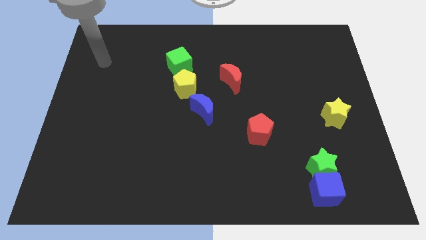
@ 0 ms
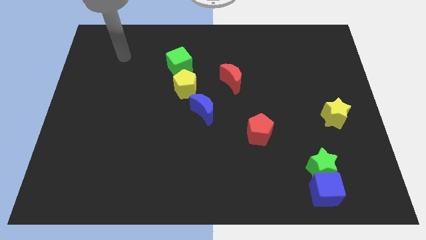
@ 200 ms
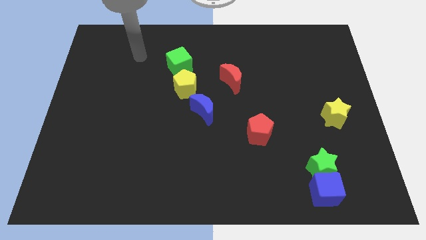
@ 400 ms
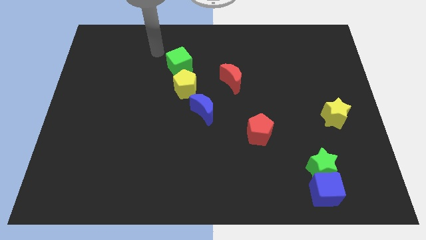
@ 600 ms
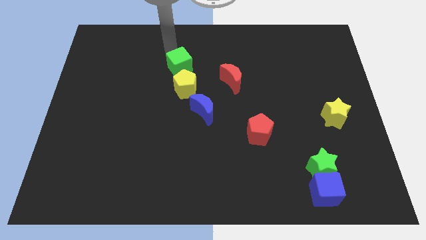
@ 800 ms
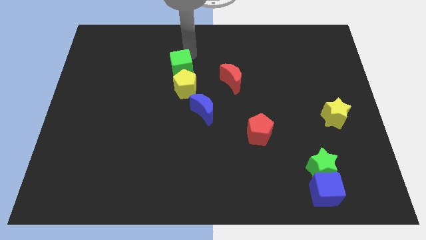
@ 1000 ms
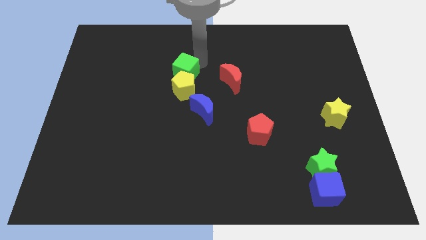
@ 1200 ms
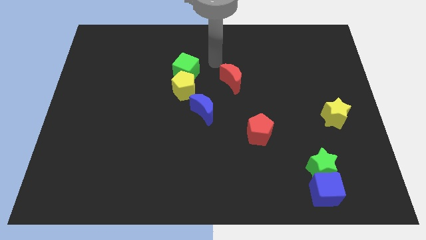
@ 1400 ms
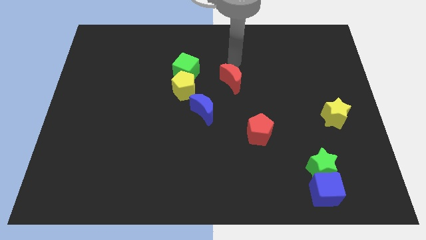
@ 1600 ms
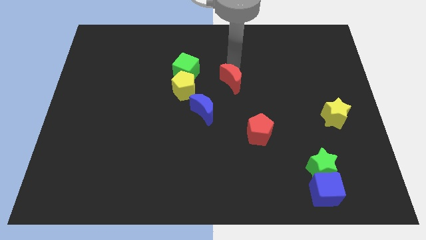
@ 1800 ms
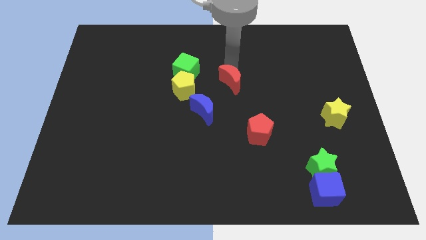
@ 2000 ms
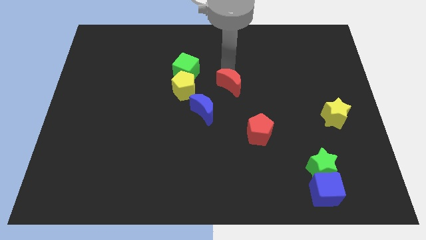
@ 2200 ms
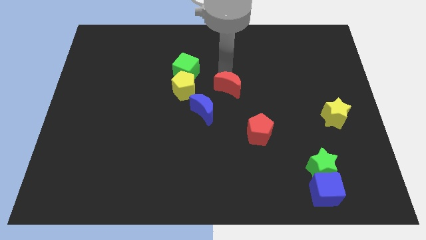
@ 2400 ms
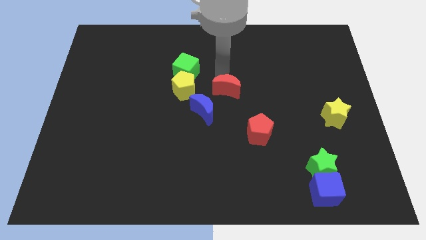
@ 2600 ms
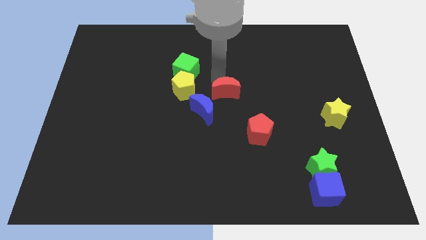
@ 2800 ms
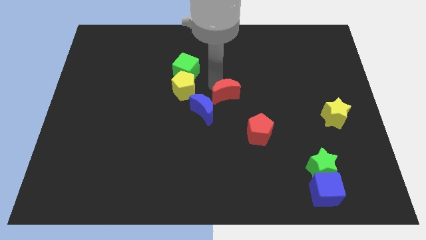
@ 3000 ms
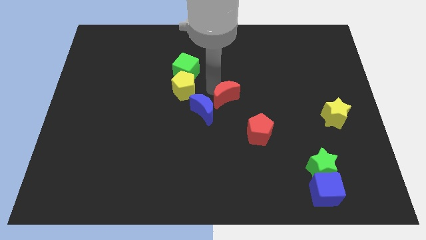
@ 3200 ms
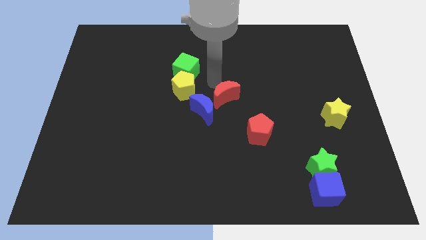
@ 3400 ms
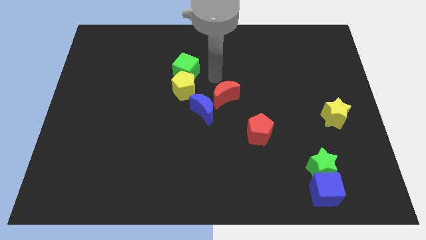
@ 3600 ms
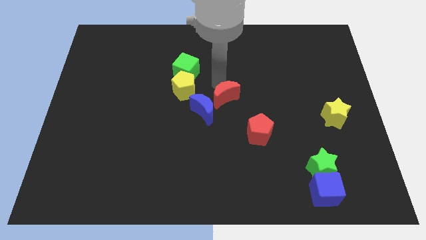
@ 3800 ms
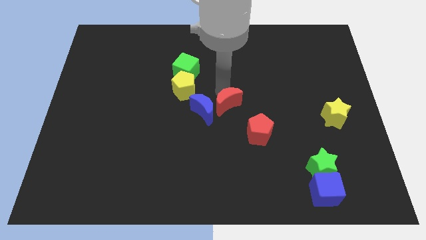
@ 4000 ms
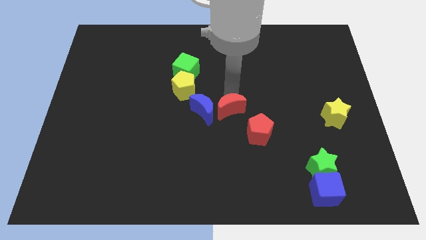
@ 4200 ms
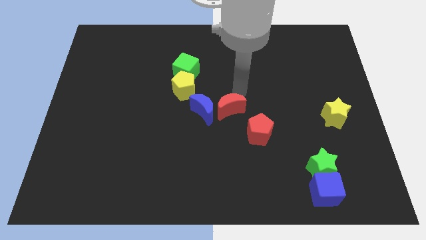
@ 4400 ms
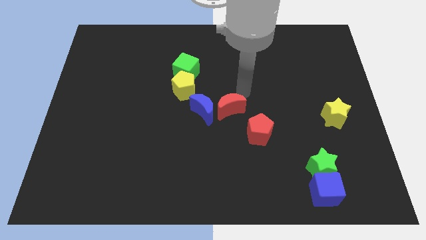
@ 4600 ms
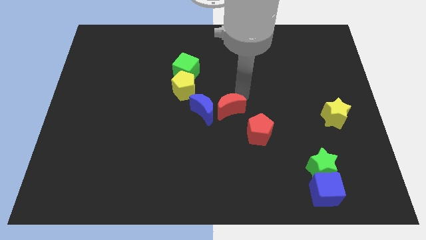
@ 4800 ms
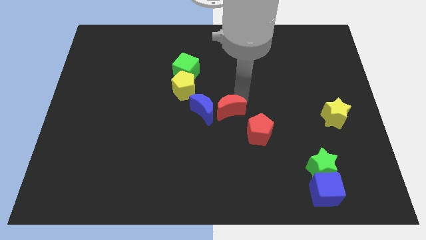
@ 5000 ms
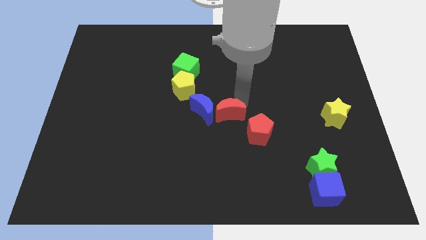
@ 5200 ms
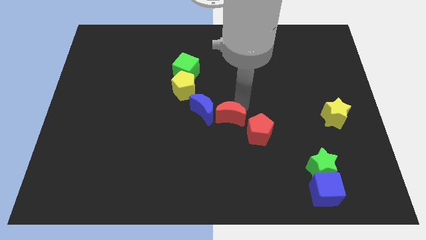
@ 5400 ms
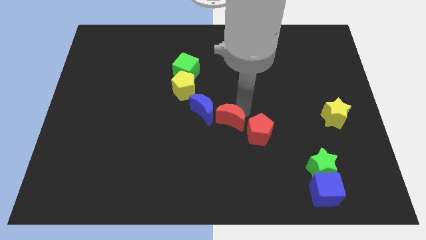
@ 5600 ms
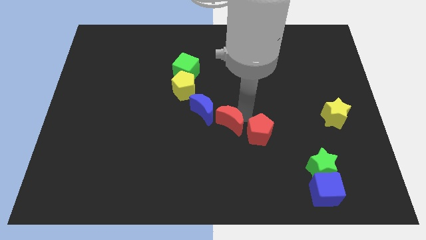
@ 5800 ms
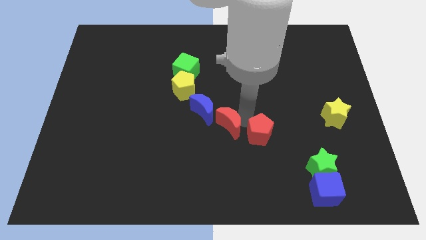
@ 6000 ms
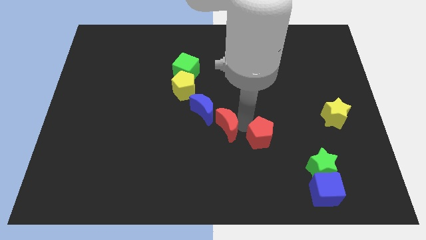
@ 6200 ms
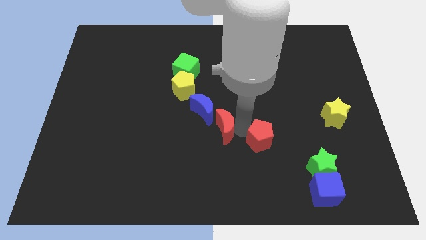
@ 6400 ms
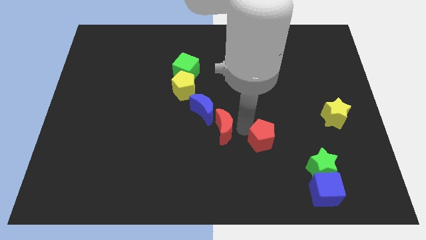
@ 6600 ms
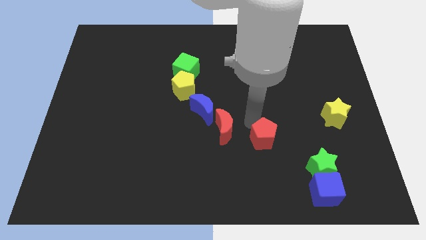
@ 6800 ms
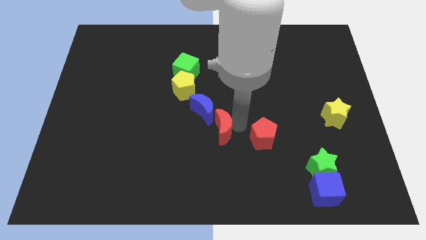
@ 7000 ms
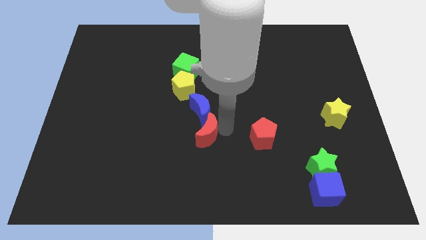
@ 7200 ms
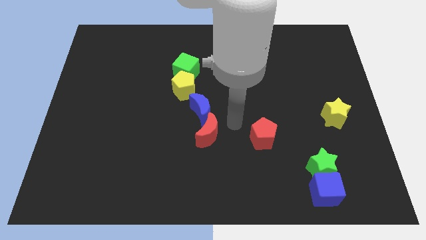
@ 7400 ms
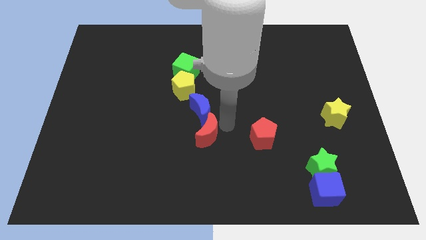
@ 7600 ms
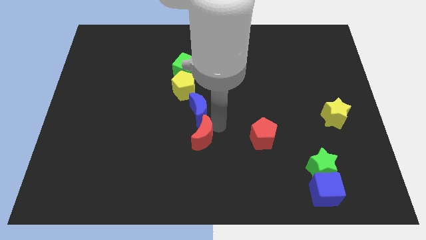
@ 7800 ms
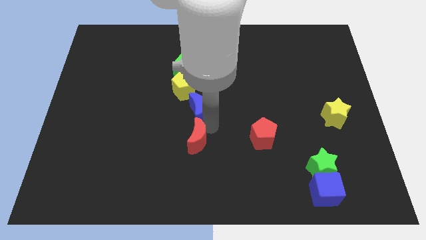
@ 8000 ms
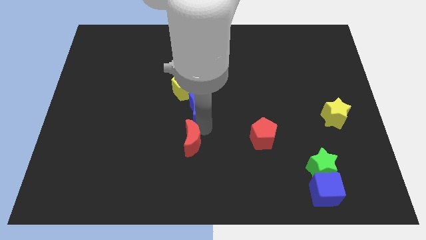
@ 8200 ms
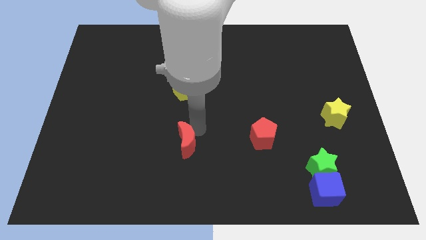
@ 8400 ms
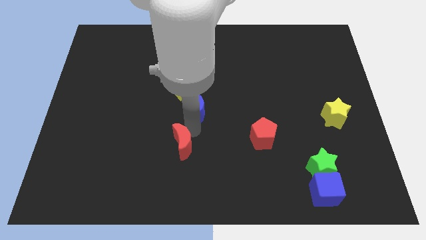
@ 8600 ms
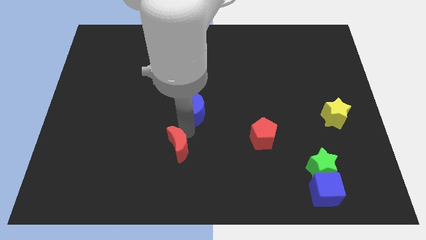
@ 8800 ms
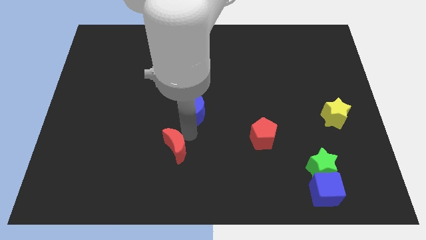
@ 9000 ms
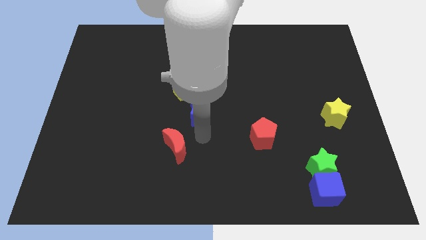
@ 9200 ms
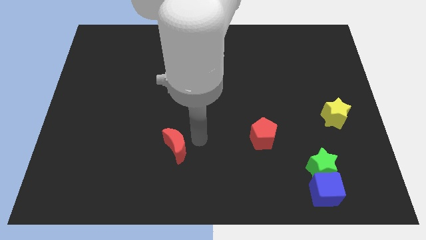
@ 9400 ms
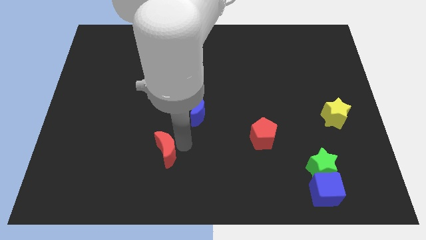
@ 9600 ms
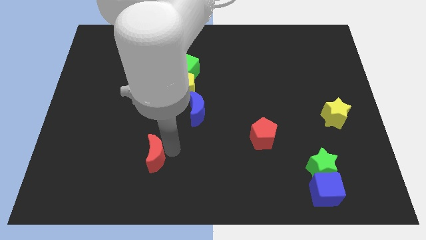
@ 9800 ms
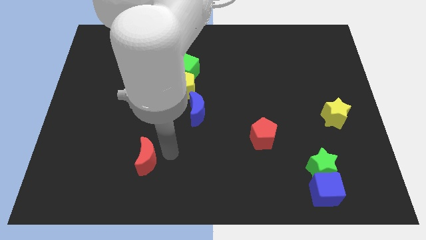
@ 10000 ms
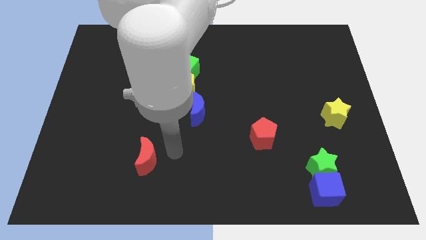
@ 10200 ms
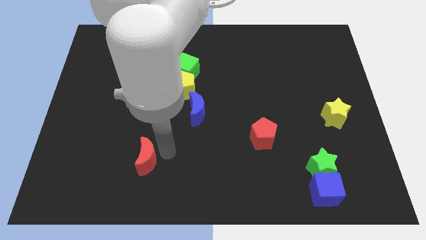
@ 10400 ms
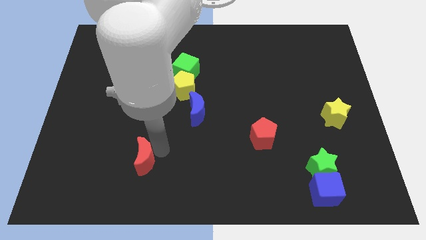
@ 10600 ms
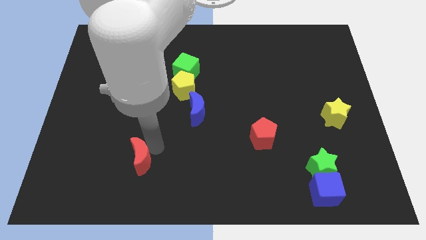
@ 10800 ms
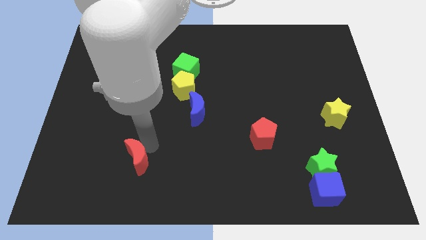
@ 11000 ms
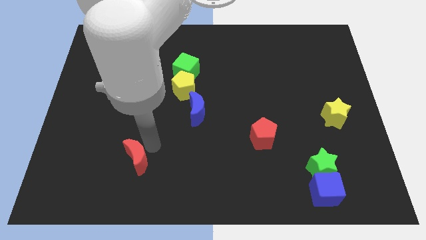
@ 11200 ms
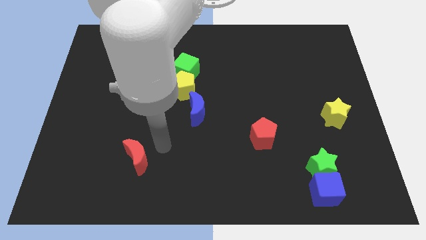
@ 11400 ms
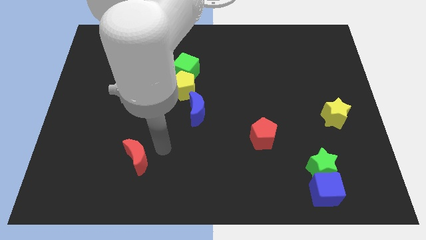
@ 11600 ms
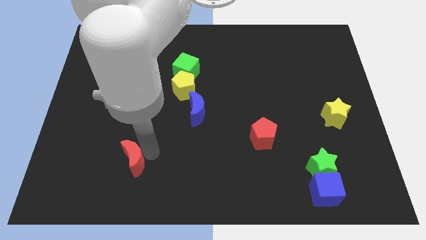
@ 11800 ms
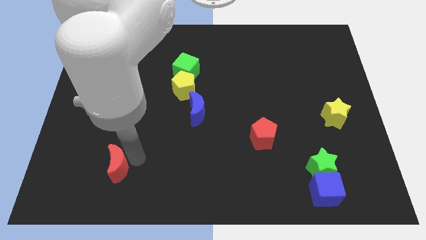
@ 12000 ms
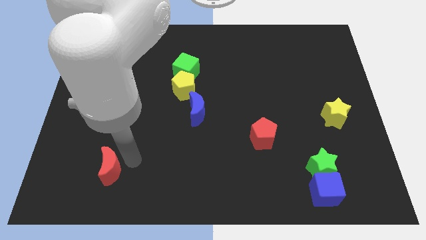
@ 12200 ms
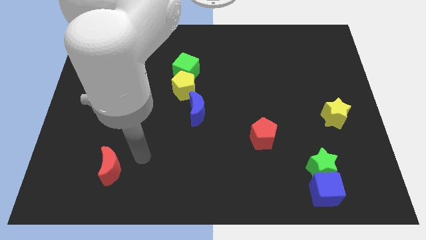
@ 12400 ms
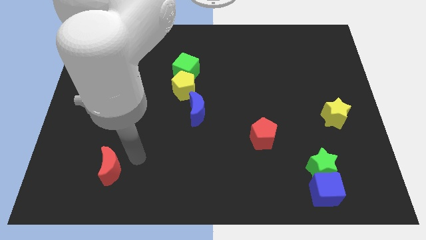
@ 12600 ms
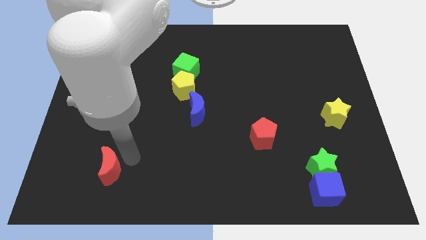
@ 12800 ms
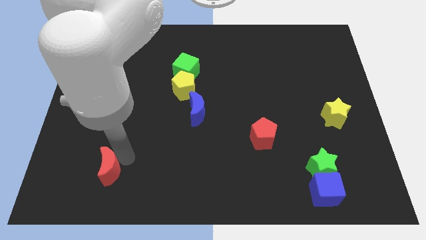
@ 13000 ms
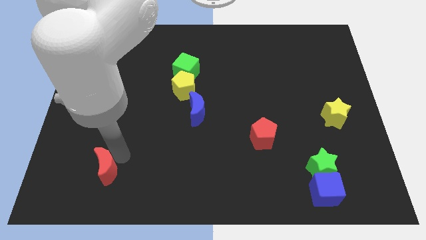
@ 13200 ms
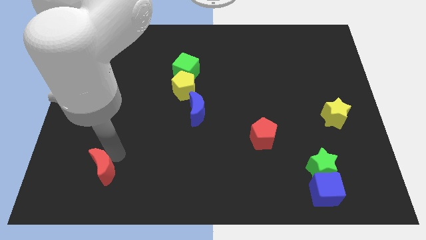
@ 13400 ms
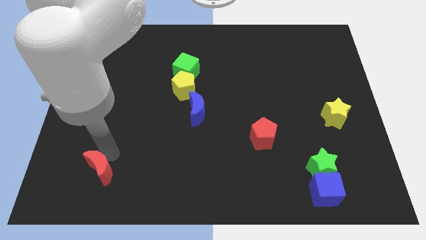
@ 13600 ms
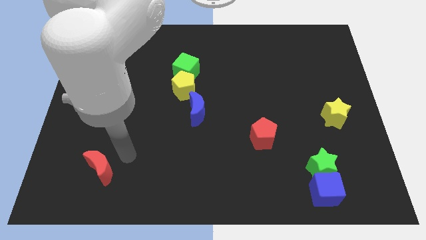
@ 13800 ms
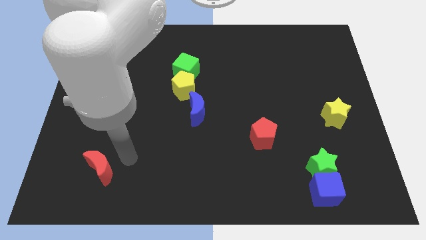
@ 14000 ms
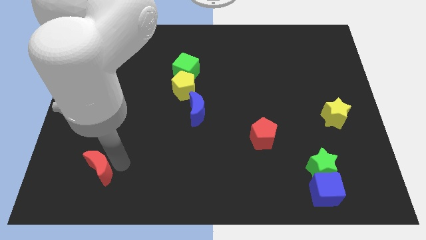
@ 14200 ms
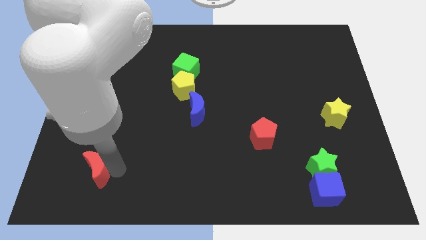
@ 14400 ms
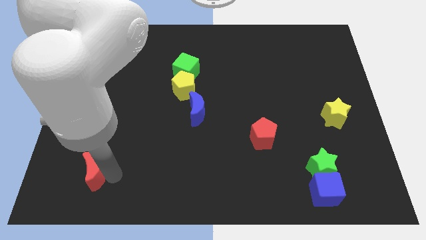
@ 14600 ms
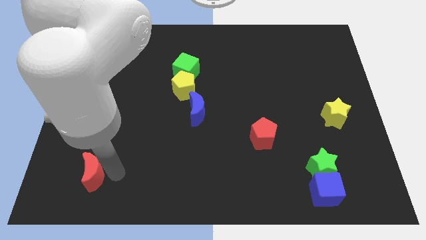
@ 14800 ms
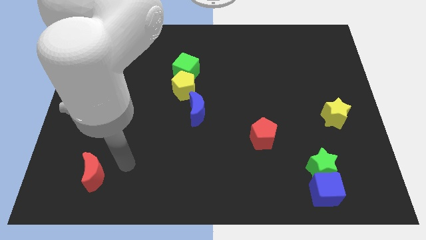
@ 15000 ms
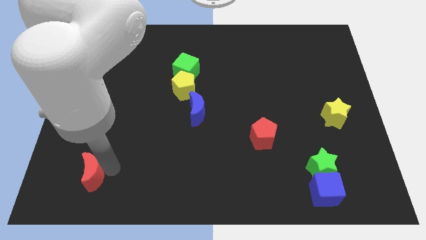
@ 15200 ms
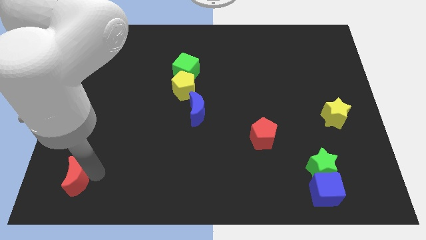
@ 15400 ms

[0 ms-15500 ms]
push the red moon to the bottom left

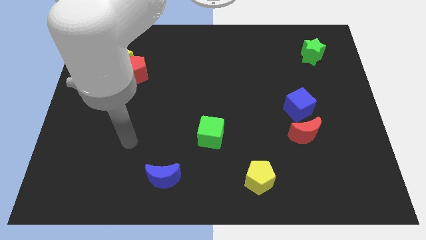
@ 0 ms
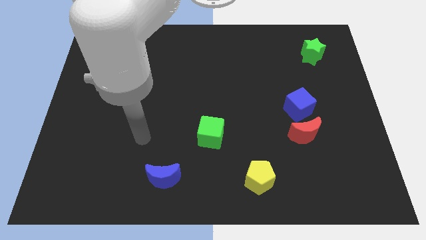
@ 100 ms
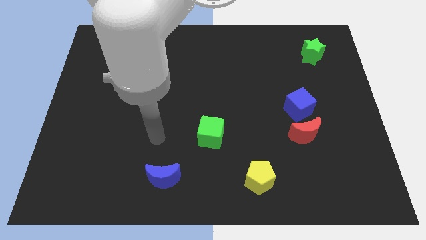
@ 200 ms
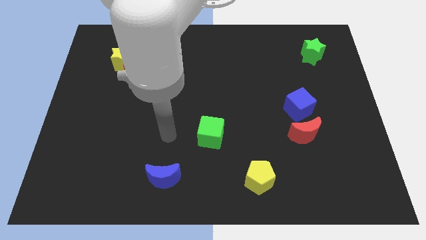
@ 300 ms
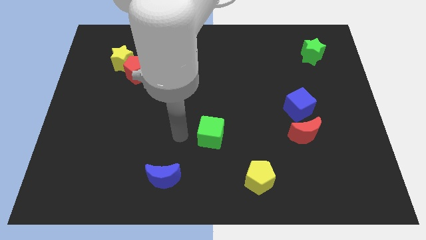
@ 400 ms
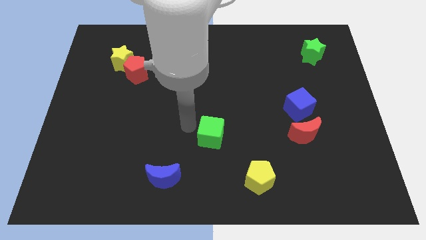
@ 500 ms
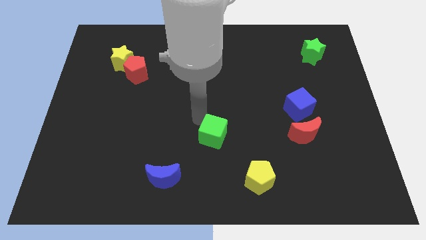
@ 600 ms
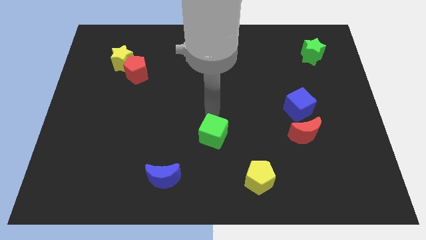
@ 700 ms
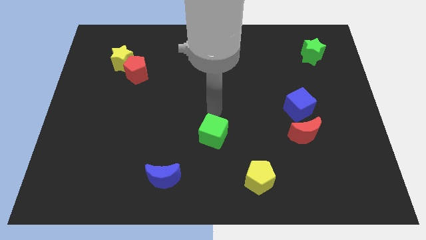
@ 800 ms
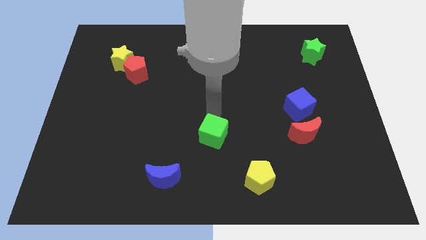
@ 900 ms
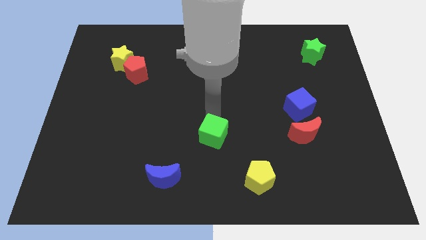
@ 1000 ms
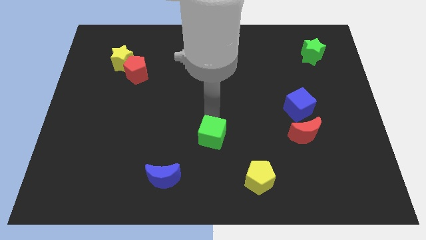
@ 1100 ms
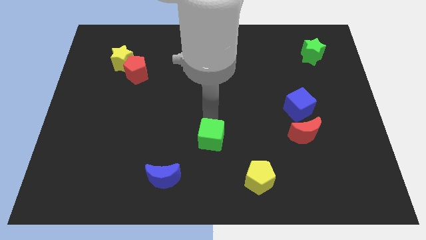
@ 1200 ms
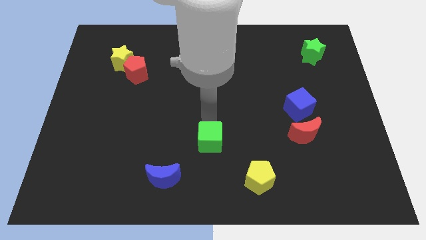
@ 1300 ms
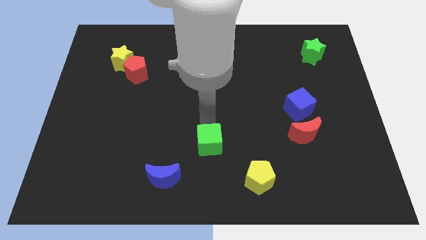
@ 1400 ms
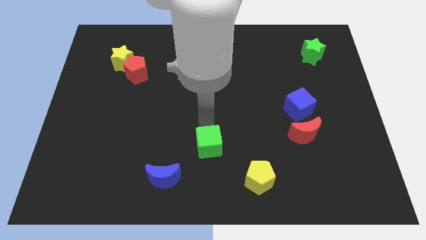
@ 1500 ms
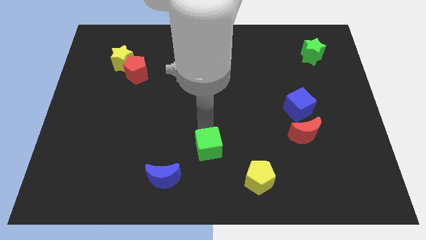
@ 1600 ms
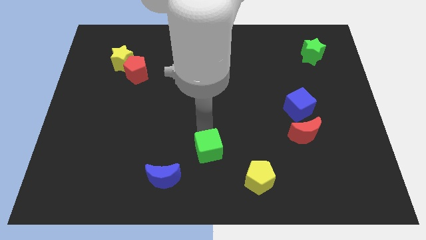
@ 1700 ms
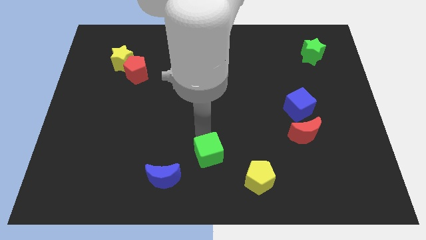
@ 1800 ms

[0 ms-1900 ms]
push the green cube to the bottom side
